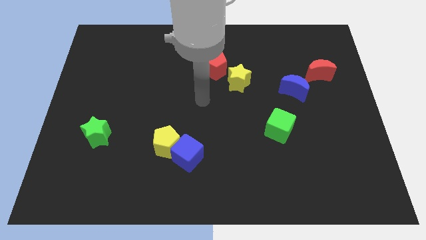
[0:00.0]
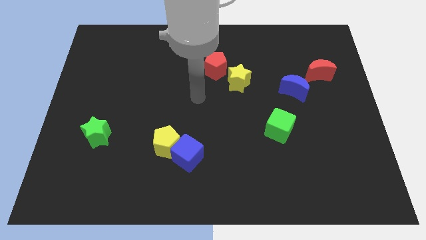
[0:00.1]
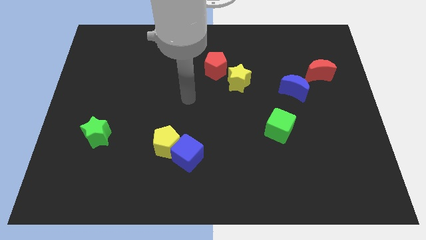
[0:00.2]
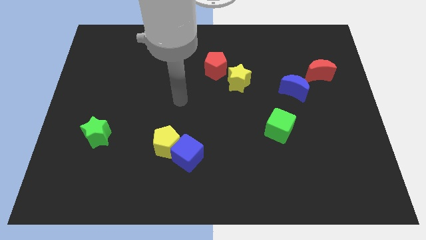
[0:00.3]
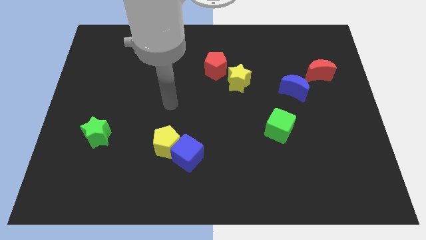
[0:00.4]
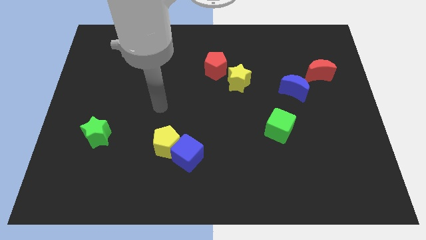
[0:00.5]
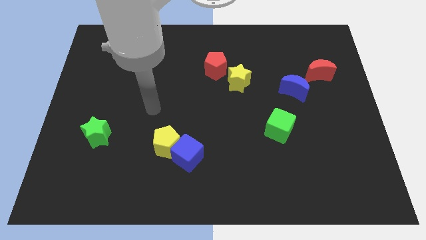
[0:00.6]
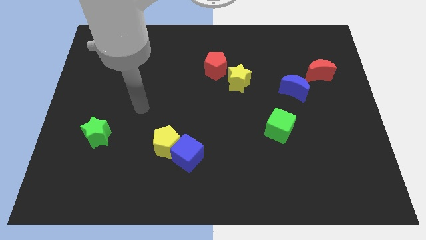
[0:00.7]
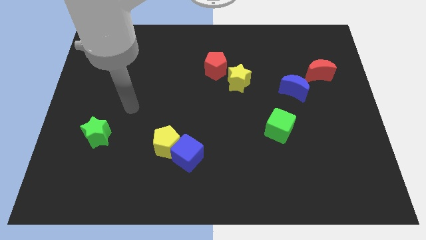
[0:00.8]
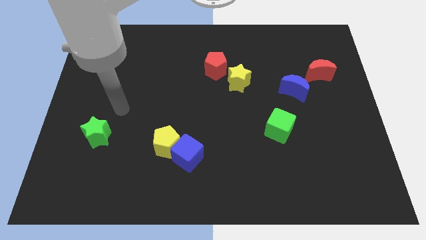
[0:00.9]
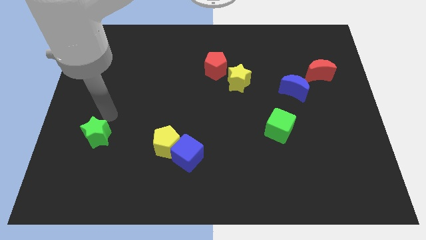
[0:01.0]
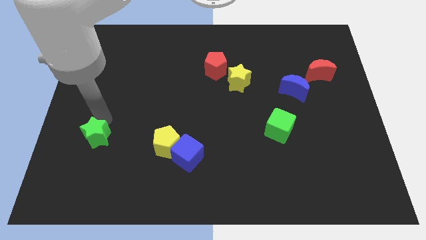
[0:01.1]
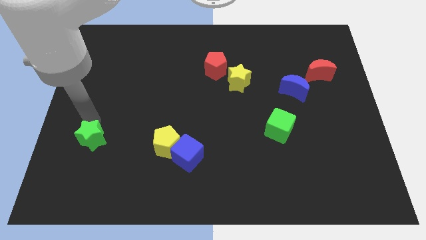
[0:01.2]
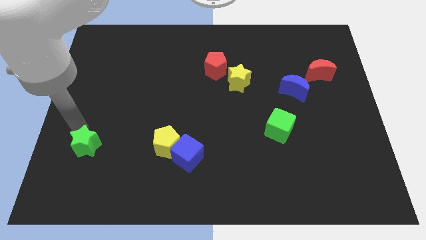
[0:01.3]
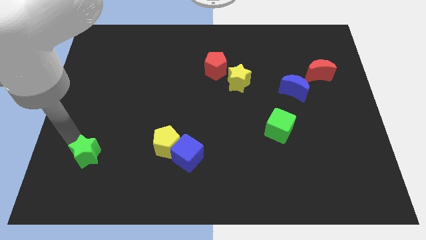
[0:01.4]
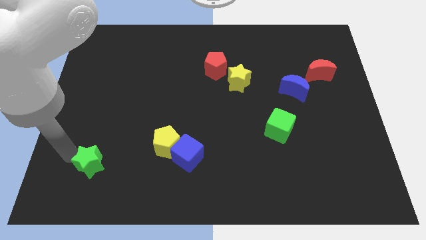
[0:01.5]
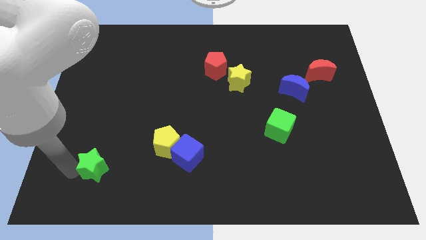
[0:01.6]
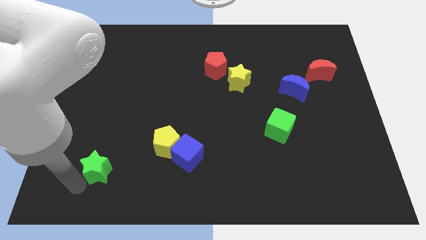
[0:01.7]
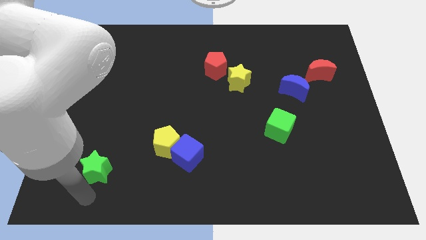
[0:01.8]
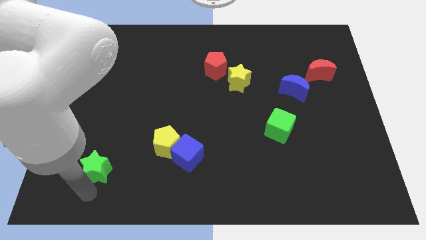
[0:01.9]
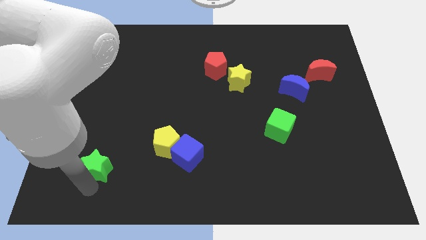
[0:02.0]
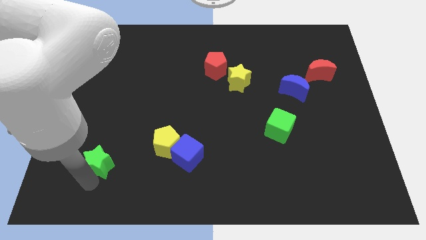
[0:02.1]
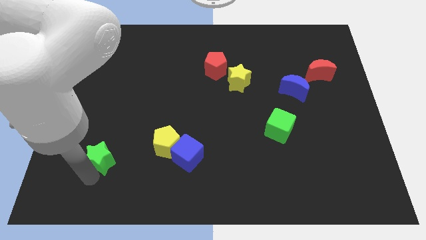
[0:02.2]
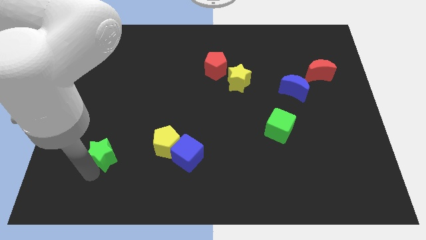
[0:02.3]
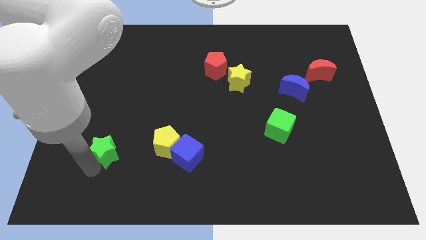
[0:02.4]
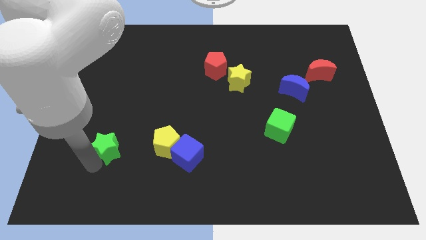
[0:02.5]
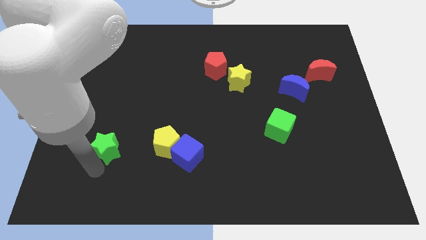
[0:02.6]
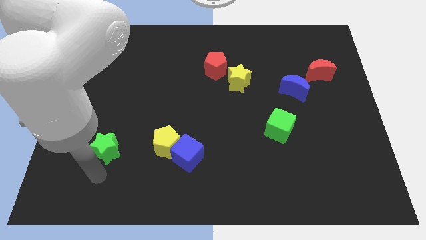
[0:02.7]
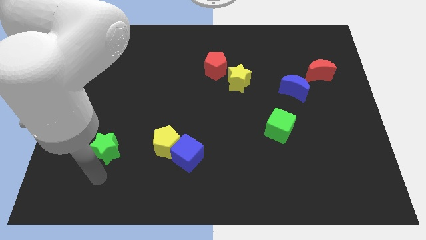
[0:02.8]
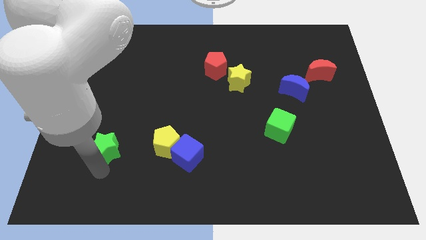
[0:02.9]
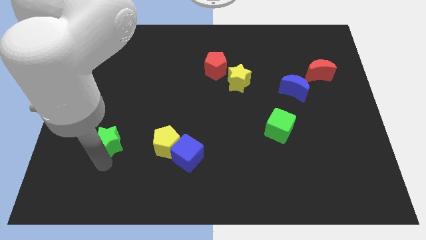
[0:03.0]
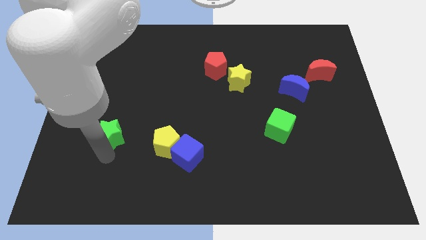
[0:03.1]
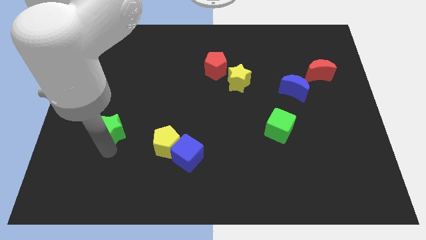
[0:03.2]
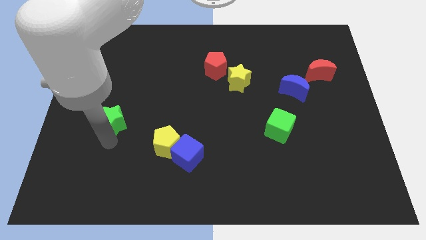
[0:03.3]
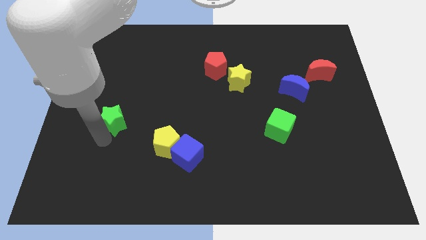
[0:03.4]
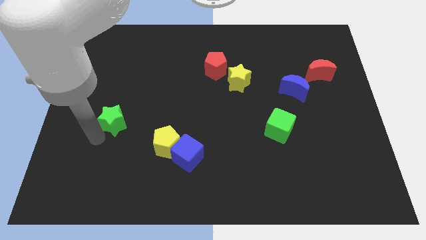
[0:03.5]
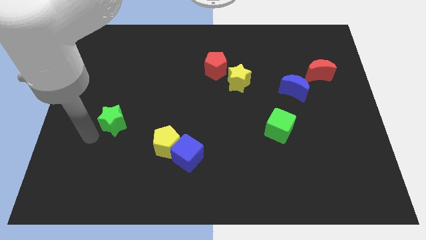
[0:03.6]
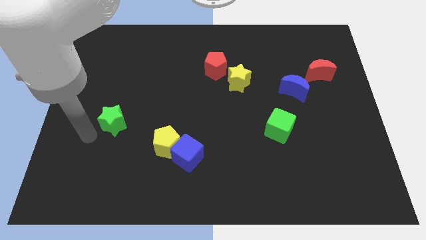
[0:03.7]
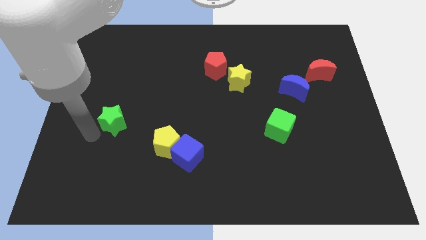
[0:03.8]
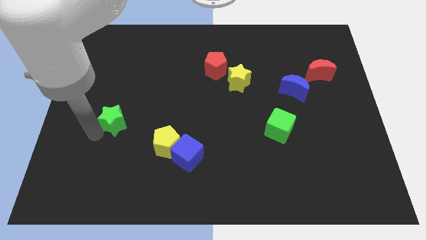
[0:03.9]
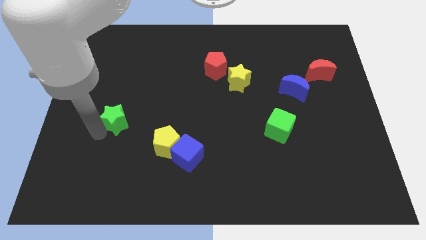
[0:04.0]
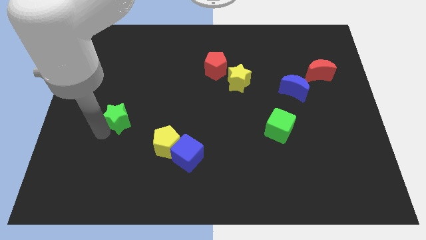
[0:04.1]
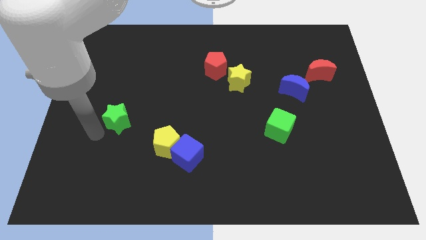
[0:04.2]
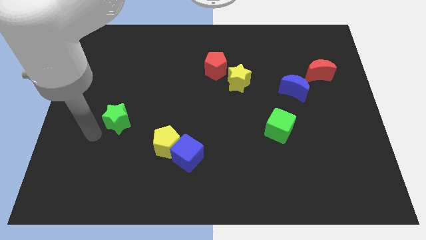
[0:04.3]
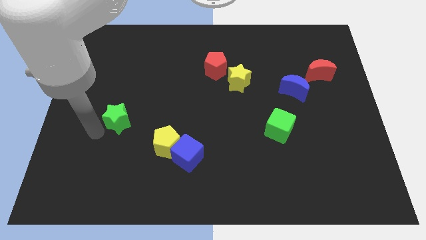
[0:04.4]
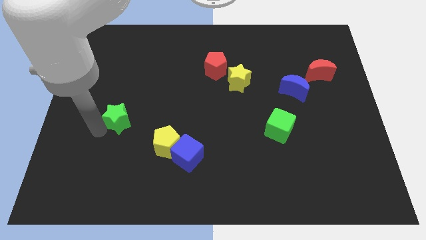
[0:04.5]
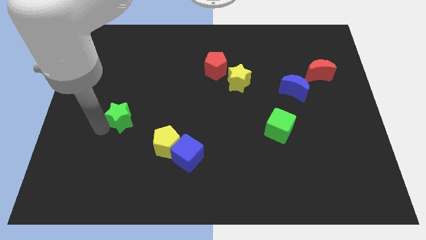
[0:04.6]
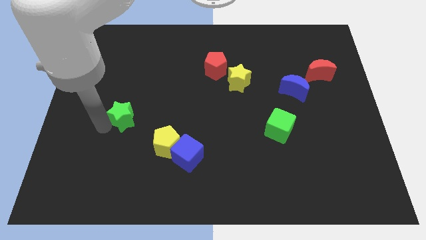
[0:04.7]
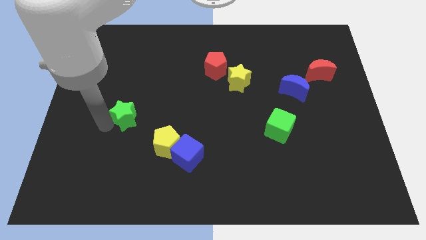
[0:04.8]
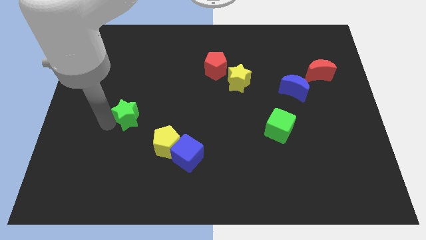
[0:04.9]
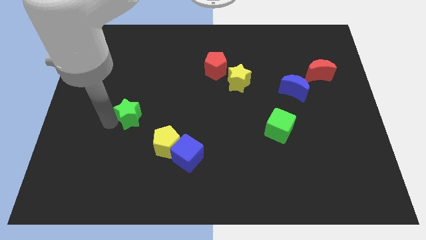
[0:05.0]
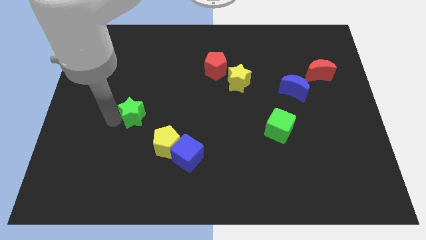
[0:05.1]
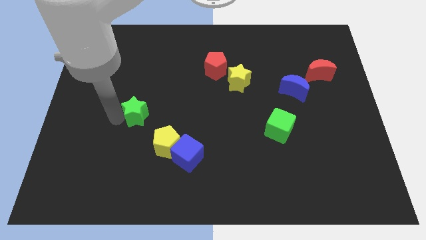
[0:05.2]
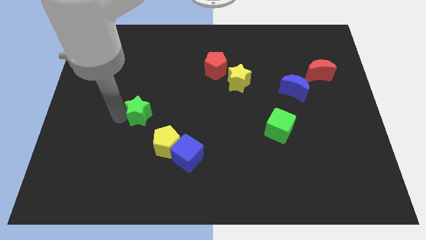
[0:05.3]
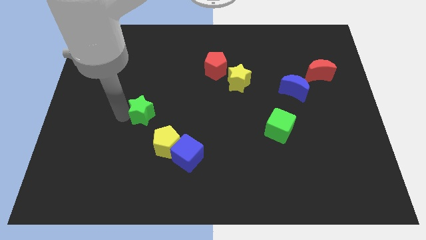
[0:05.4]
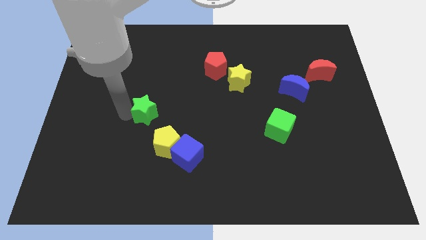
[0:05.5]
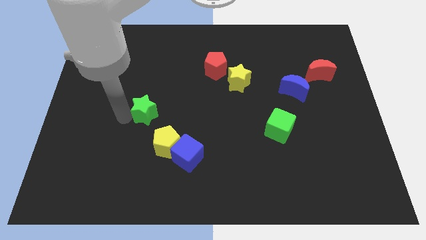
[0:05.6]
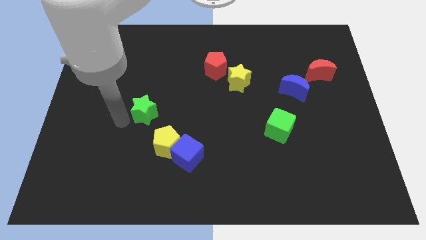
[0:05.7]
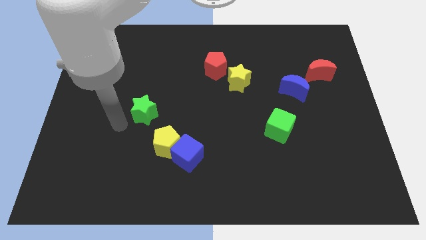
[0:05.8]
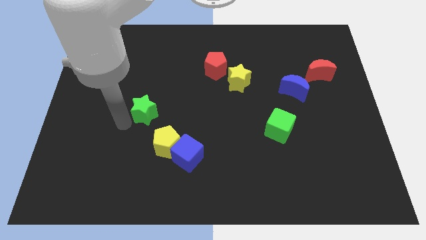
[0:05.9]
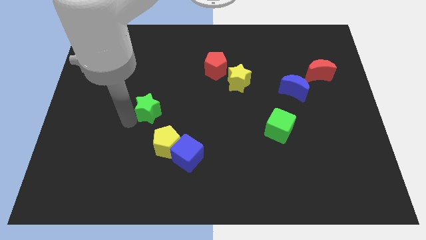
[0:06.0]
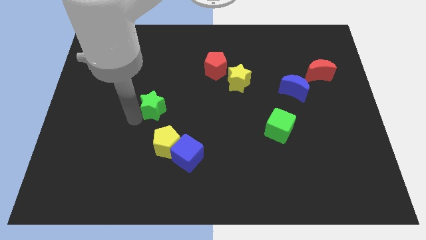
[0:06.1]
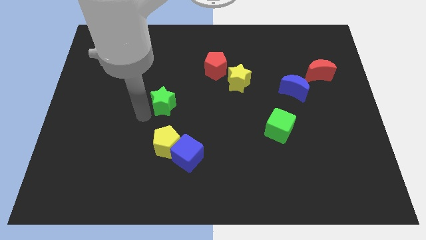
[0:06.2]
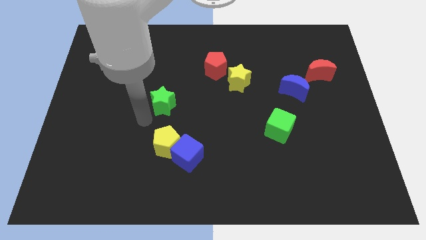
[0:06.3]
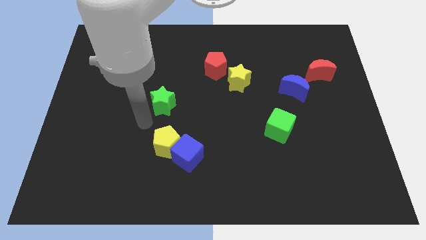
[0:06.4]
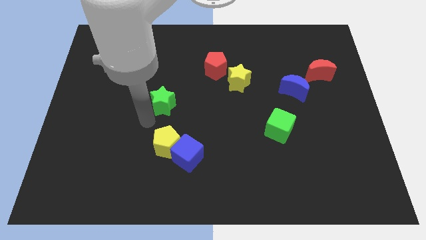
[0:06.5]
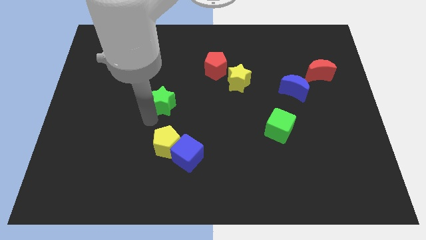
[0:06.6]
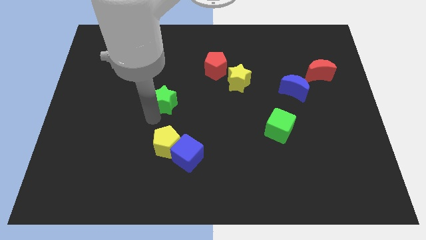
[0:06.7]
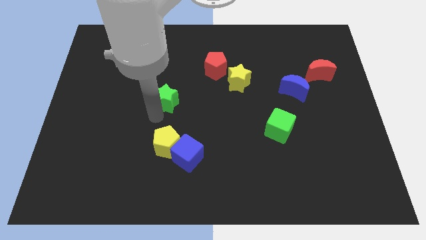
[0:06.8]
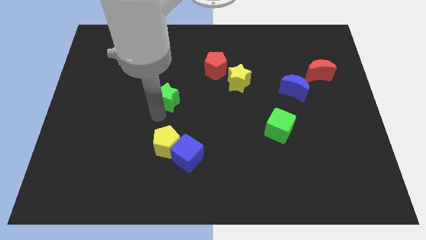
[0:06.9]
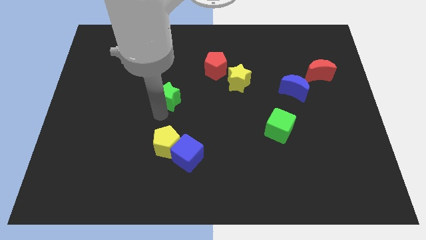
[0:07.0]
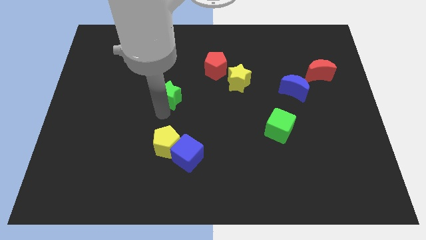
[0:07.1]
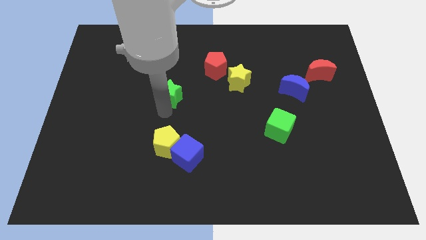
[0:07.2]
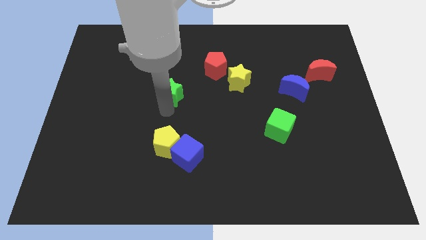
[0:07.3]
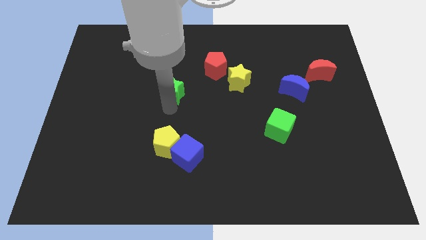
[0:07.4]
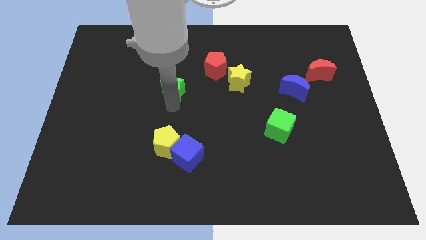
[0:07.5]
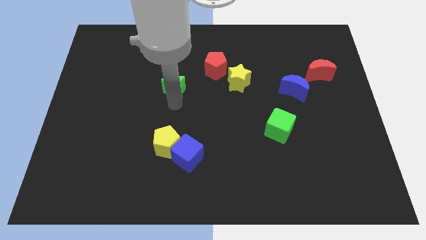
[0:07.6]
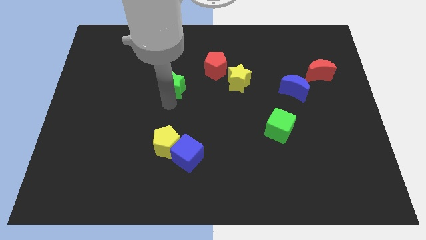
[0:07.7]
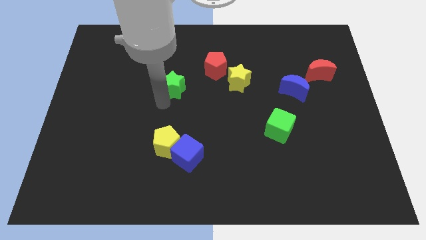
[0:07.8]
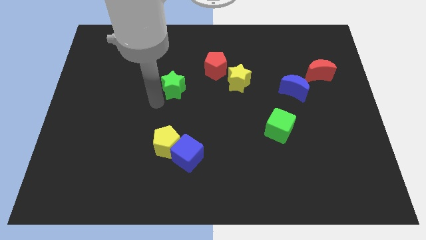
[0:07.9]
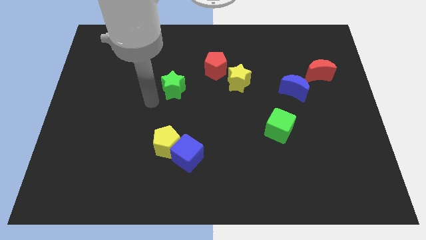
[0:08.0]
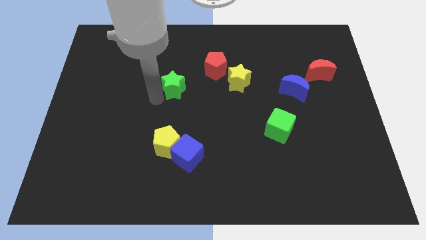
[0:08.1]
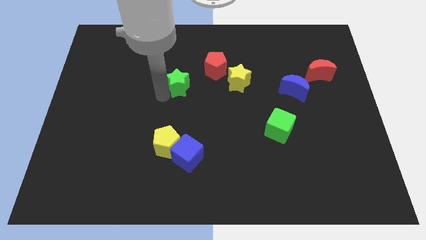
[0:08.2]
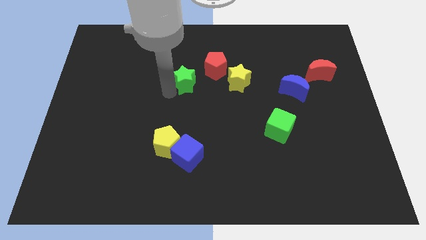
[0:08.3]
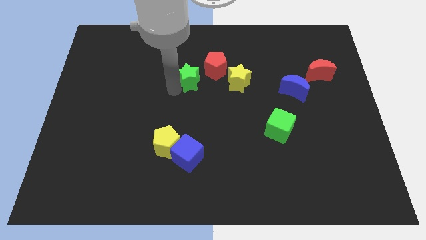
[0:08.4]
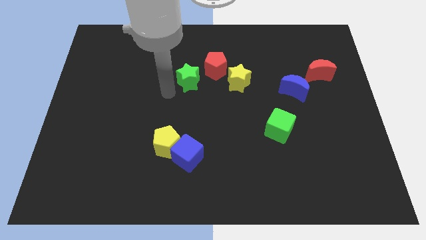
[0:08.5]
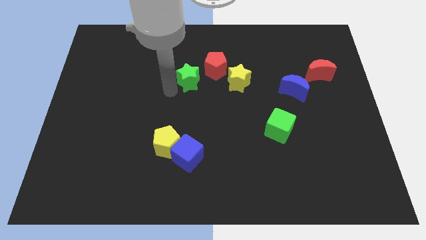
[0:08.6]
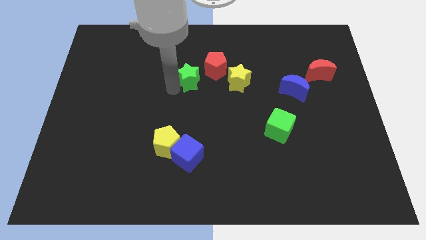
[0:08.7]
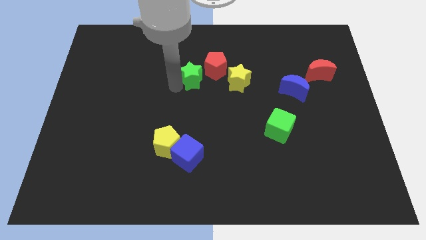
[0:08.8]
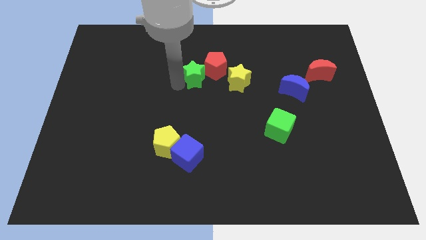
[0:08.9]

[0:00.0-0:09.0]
move the green star next to the red pentagon
